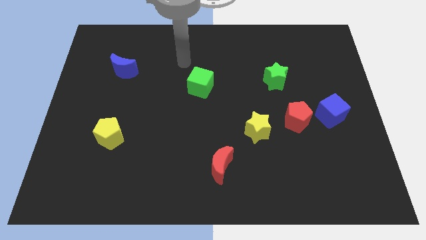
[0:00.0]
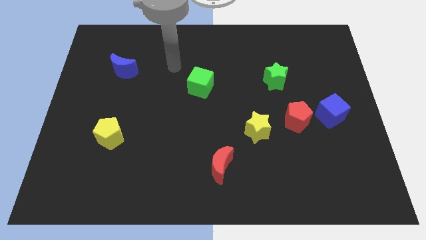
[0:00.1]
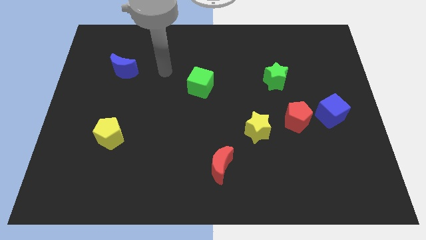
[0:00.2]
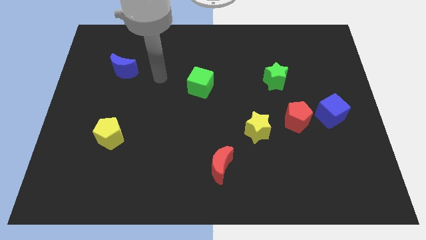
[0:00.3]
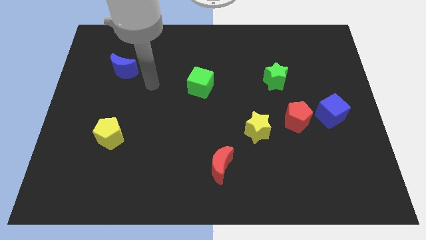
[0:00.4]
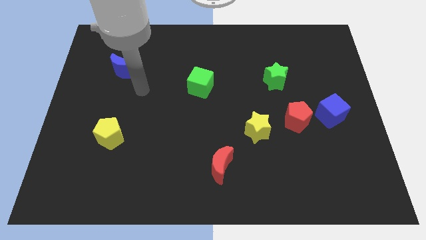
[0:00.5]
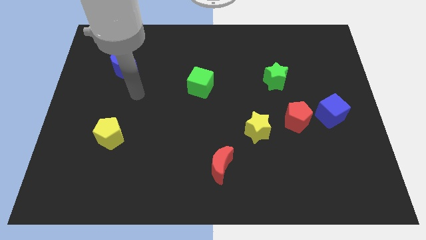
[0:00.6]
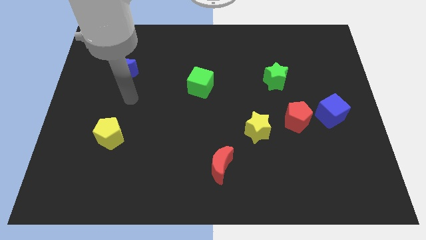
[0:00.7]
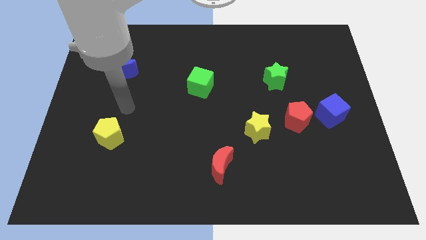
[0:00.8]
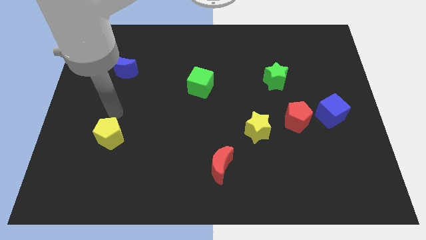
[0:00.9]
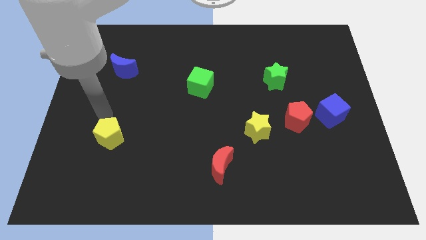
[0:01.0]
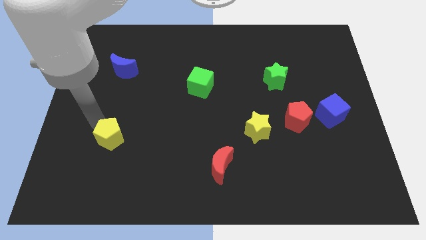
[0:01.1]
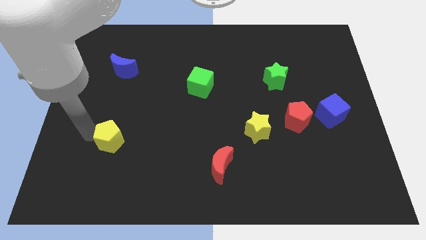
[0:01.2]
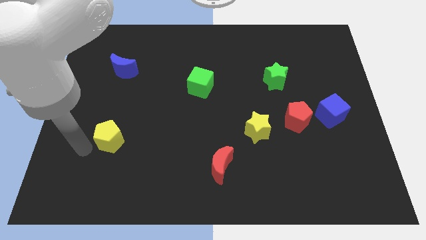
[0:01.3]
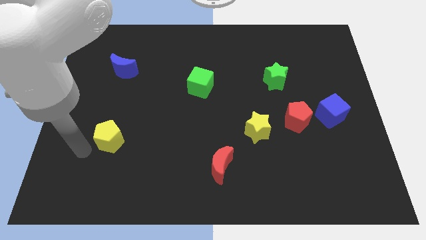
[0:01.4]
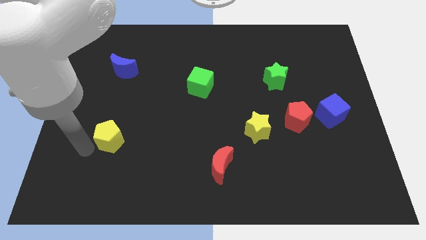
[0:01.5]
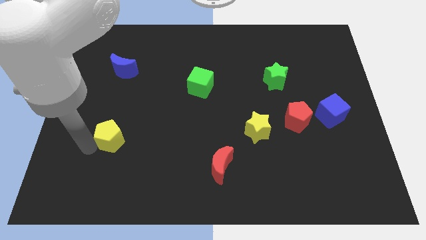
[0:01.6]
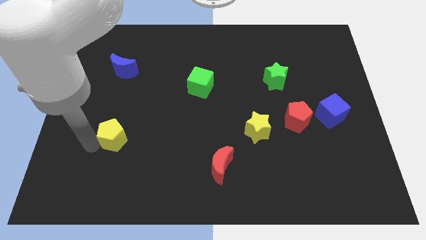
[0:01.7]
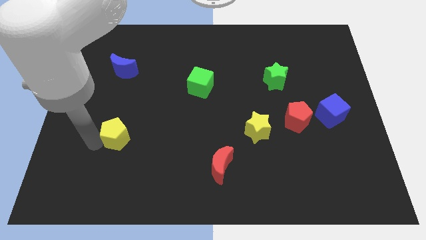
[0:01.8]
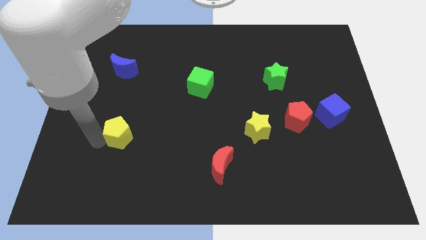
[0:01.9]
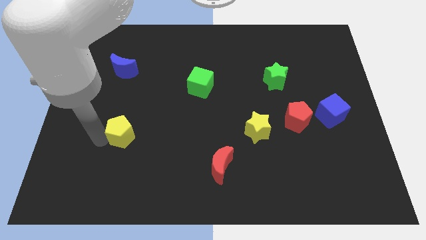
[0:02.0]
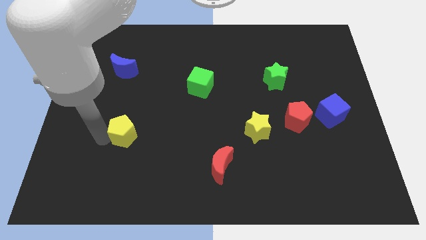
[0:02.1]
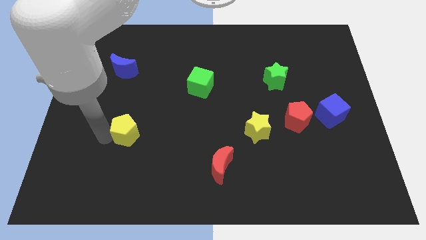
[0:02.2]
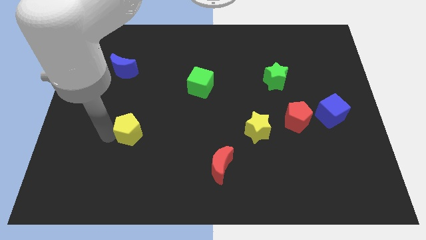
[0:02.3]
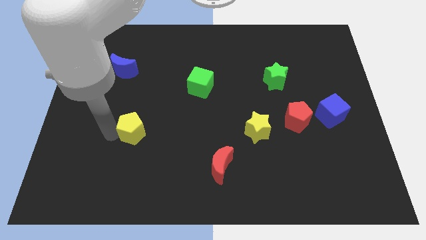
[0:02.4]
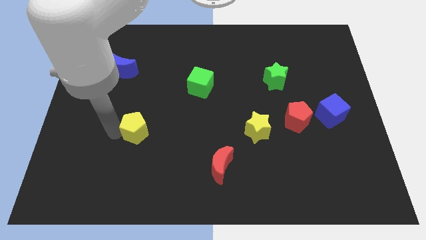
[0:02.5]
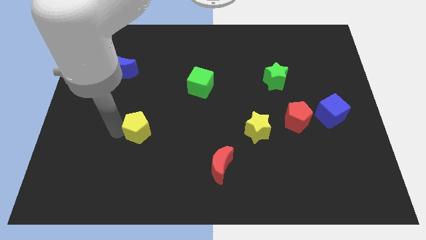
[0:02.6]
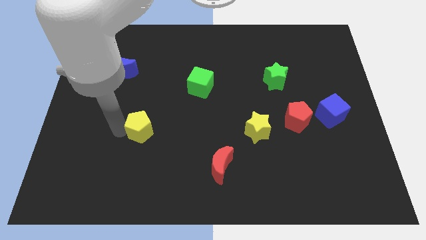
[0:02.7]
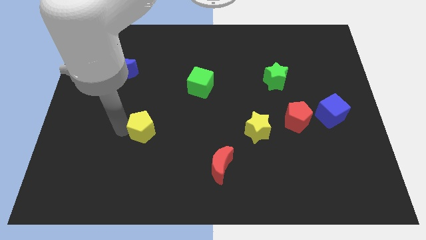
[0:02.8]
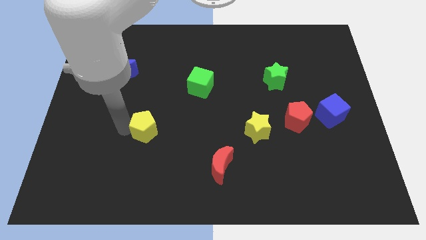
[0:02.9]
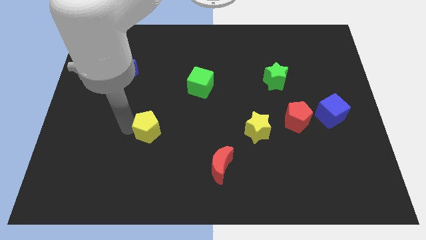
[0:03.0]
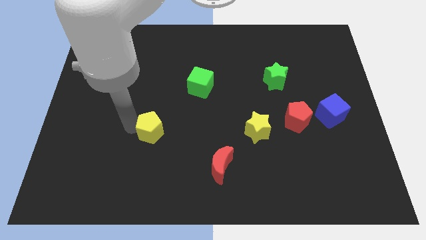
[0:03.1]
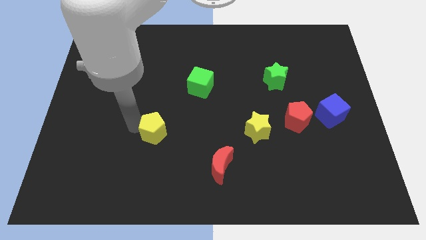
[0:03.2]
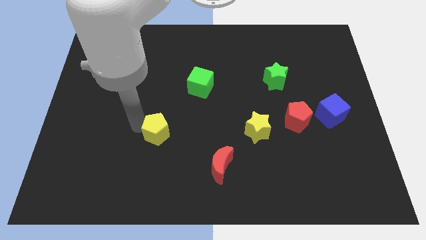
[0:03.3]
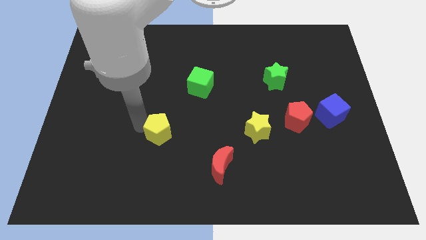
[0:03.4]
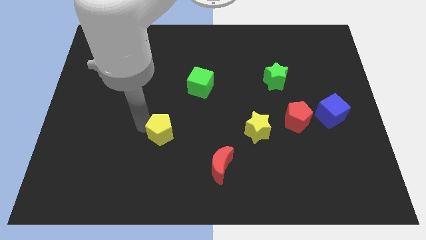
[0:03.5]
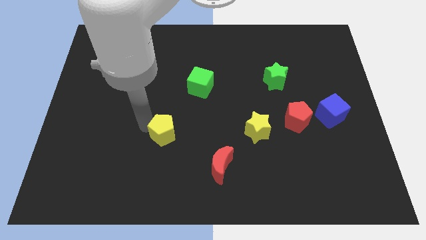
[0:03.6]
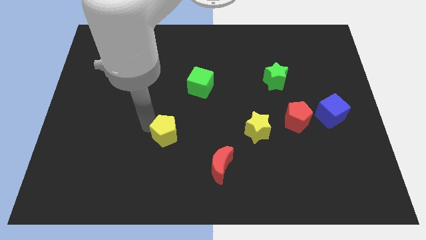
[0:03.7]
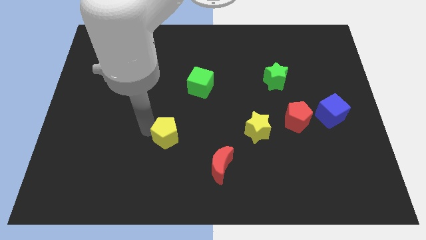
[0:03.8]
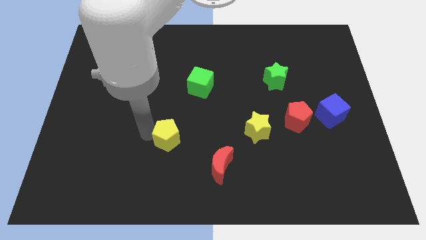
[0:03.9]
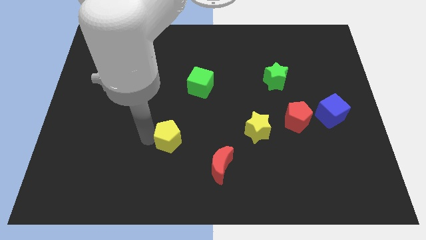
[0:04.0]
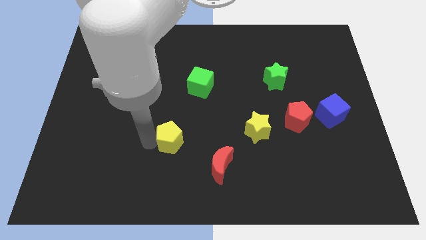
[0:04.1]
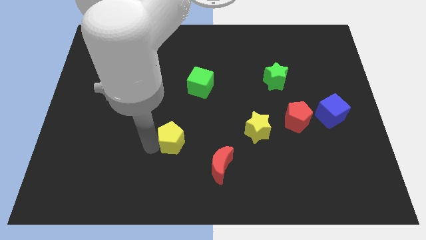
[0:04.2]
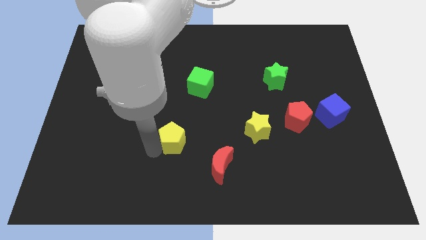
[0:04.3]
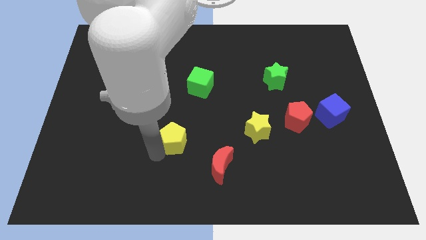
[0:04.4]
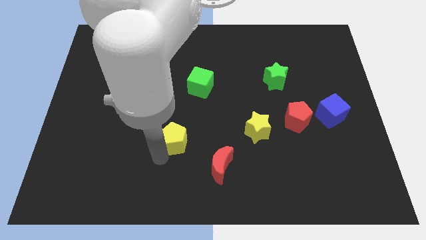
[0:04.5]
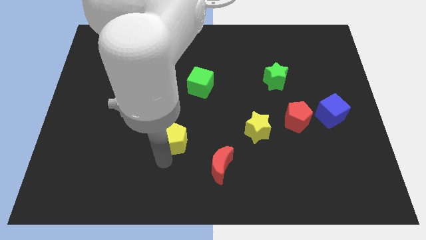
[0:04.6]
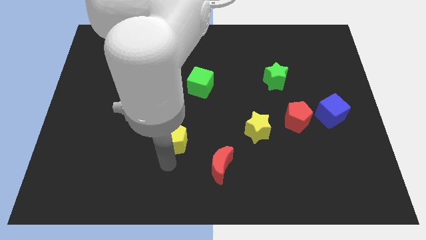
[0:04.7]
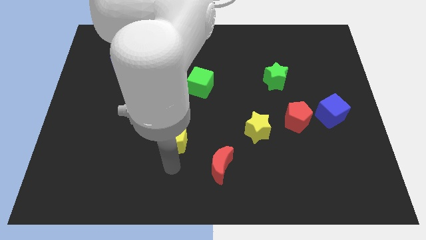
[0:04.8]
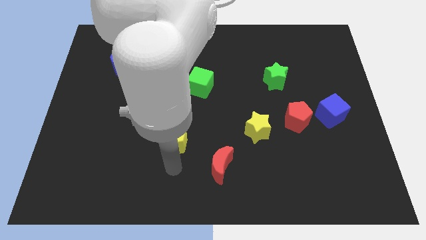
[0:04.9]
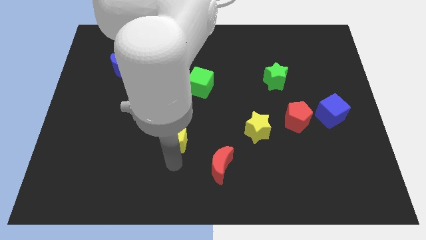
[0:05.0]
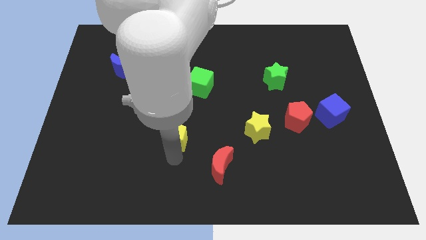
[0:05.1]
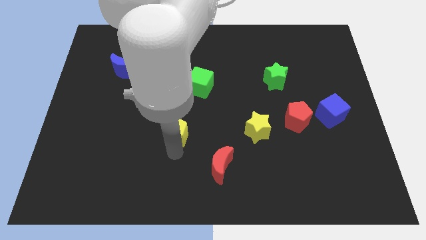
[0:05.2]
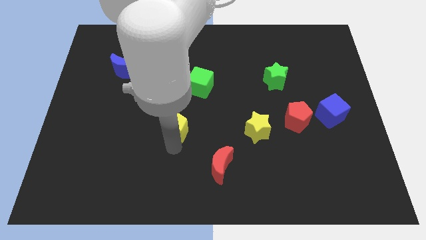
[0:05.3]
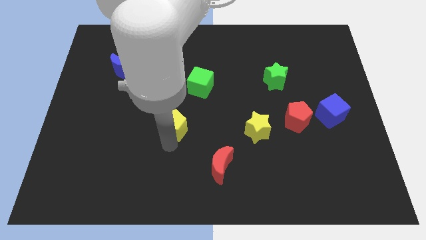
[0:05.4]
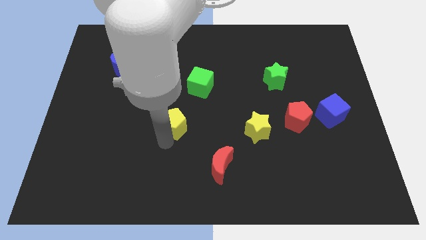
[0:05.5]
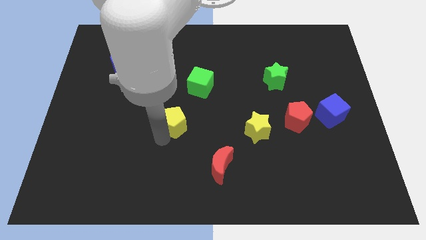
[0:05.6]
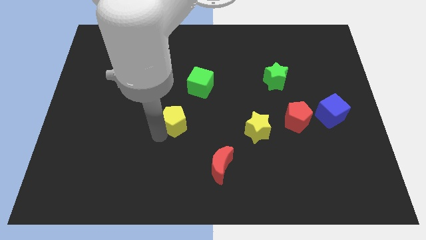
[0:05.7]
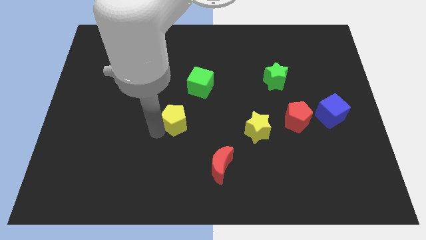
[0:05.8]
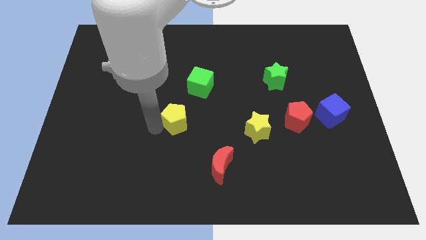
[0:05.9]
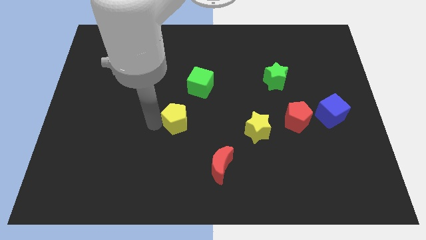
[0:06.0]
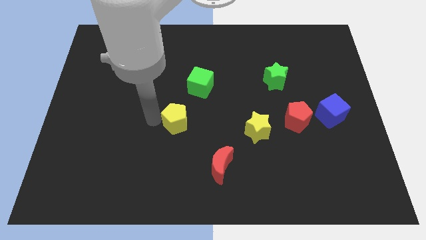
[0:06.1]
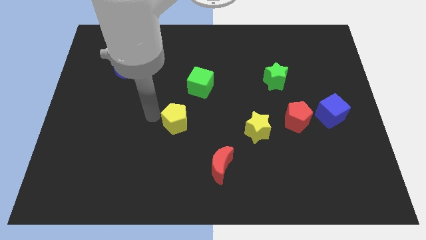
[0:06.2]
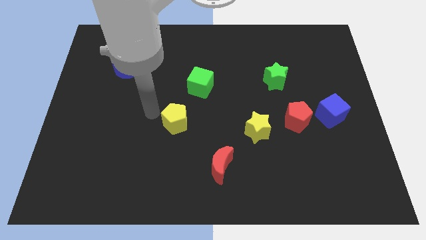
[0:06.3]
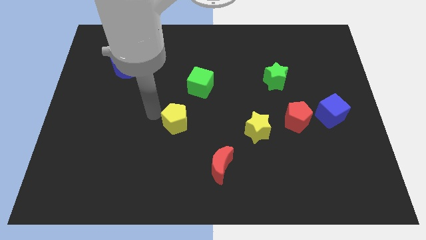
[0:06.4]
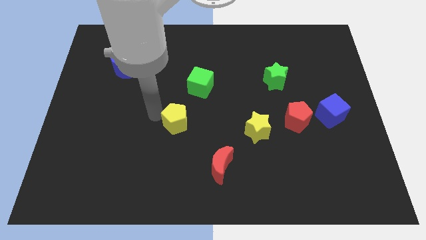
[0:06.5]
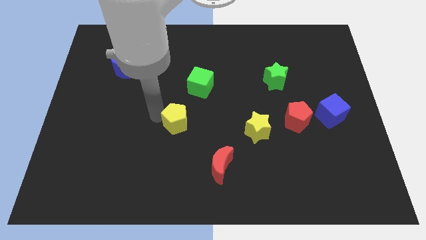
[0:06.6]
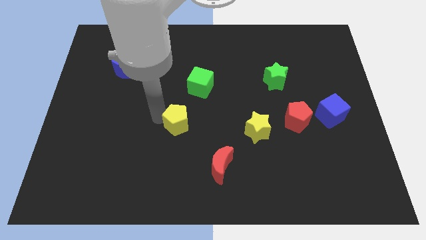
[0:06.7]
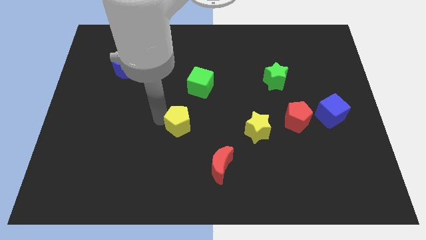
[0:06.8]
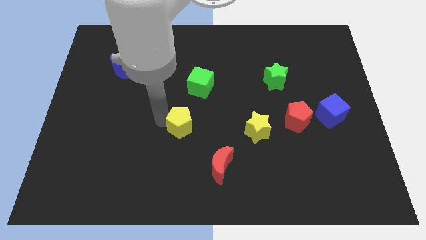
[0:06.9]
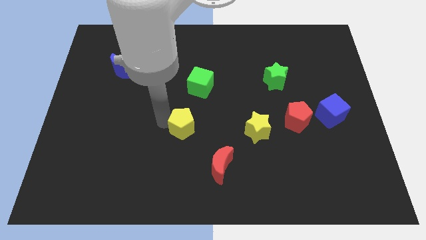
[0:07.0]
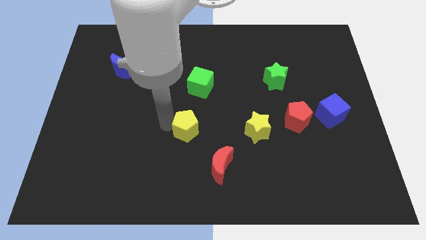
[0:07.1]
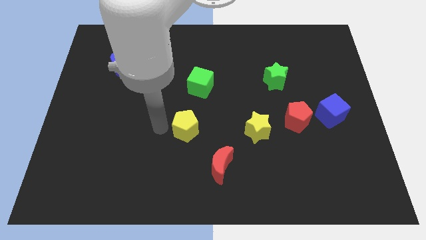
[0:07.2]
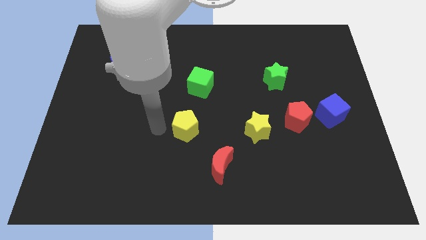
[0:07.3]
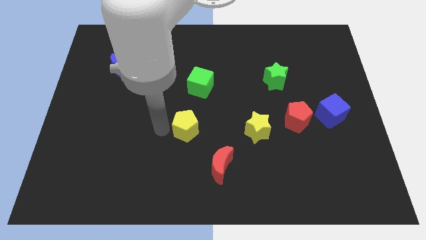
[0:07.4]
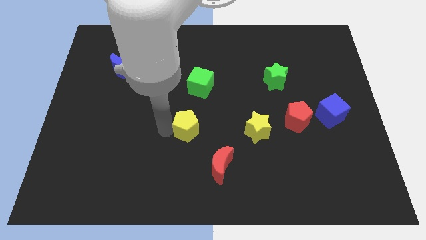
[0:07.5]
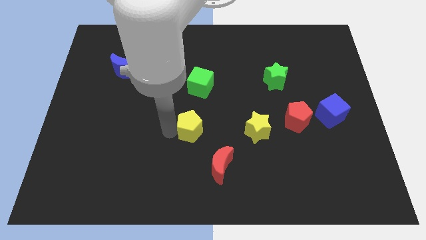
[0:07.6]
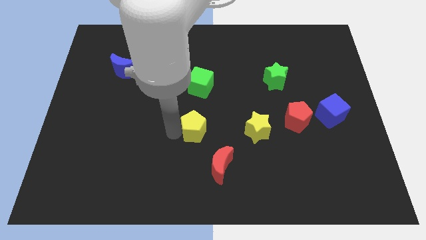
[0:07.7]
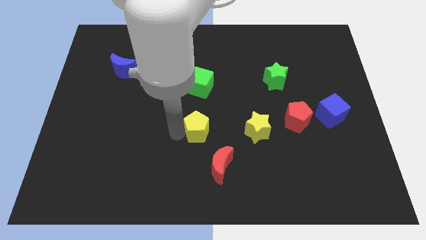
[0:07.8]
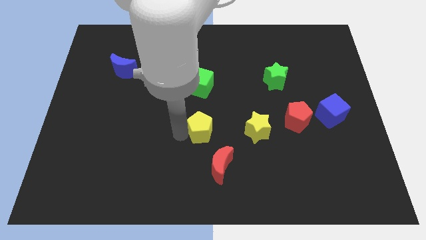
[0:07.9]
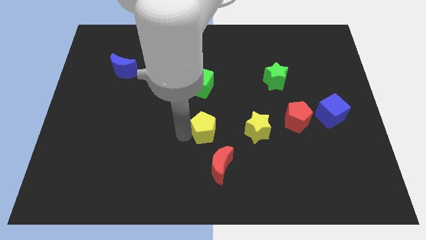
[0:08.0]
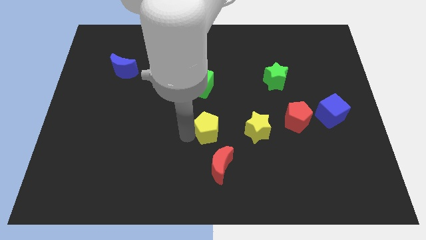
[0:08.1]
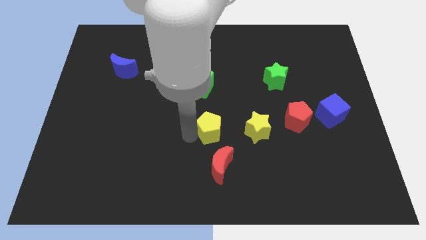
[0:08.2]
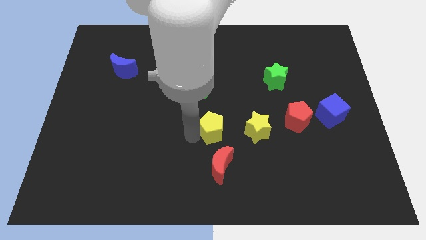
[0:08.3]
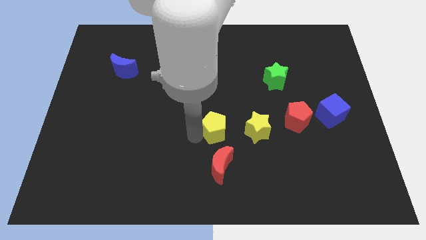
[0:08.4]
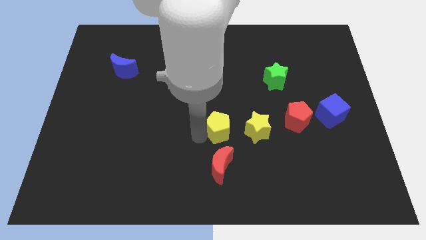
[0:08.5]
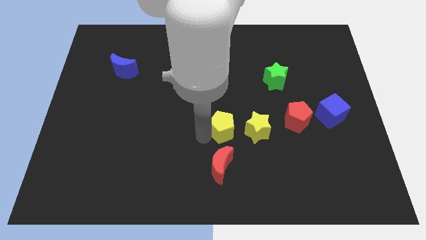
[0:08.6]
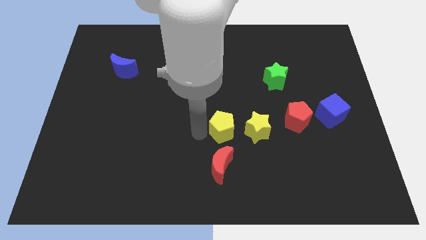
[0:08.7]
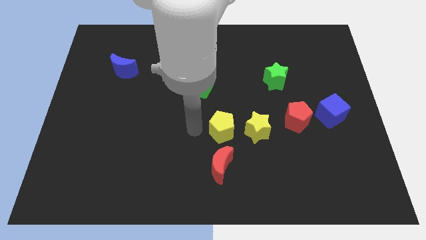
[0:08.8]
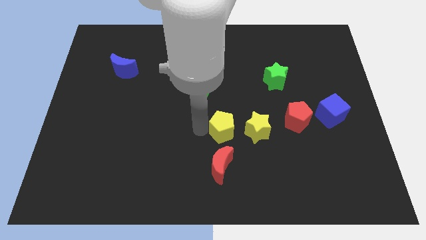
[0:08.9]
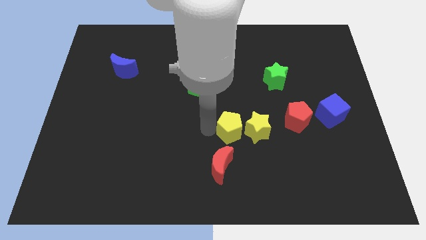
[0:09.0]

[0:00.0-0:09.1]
push the yellow pentagon to the yellow star
